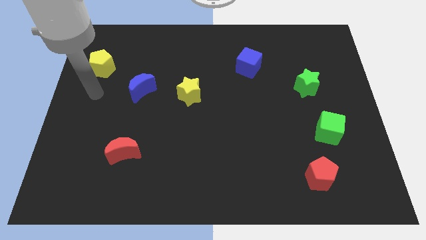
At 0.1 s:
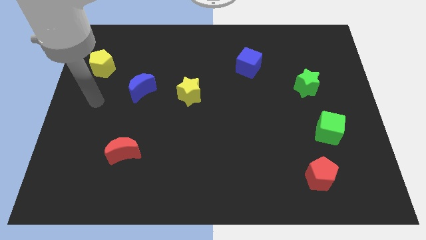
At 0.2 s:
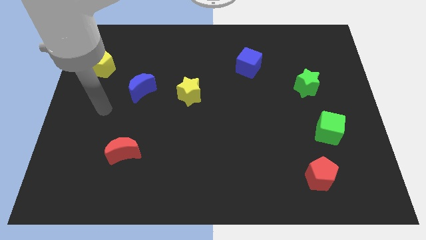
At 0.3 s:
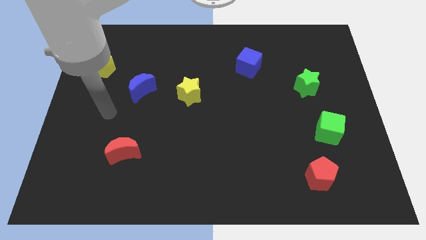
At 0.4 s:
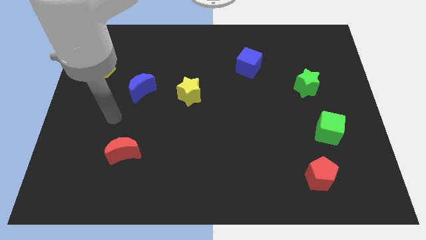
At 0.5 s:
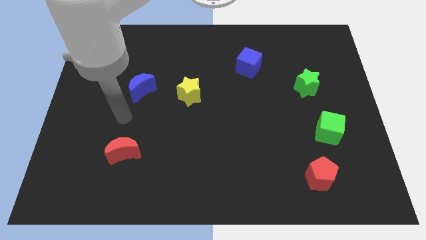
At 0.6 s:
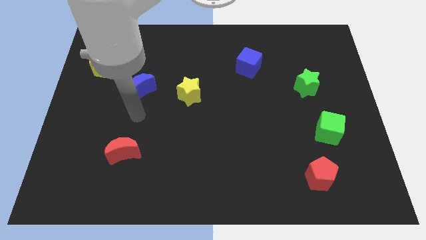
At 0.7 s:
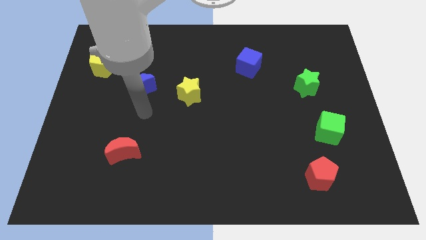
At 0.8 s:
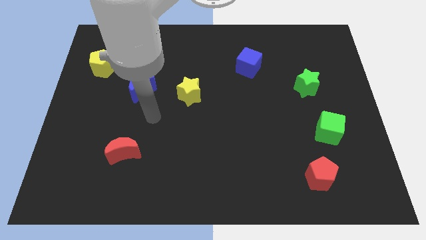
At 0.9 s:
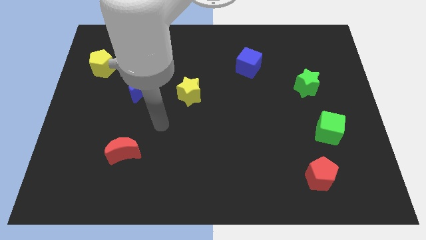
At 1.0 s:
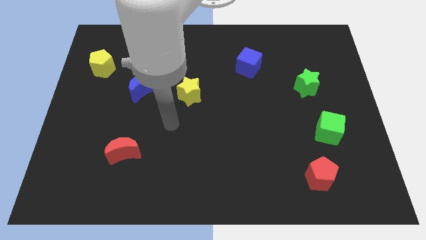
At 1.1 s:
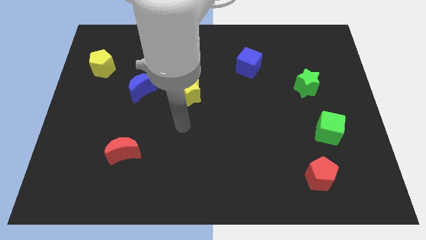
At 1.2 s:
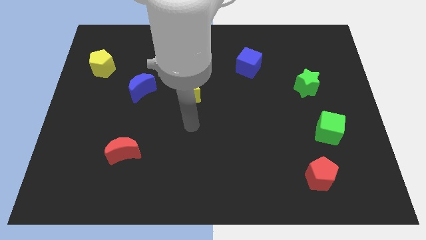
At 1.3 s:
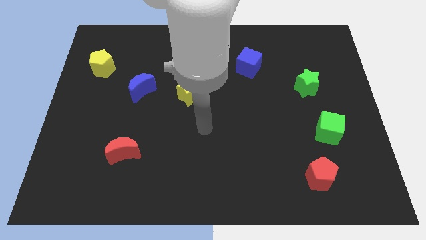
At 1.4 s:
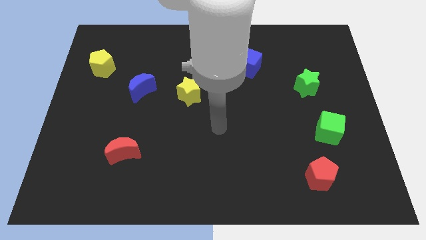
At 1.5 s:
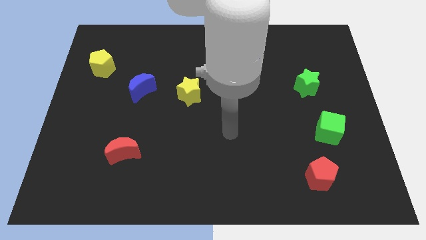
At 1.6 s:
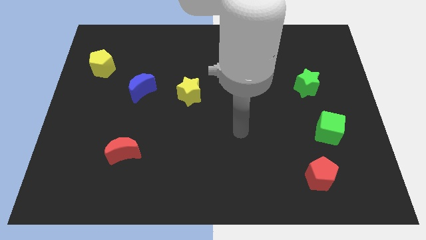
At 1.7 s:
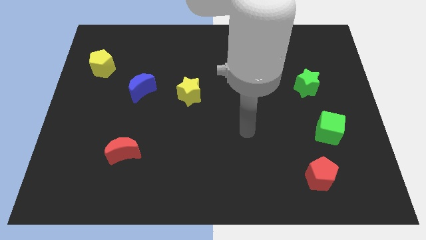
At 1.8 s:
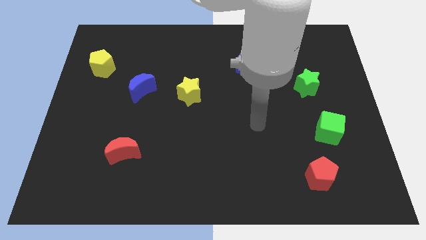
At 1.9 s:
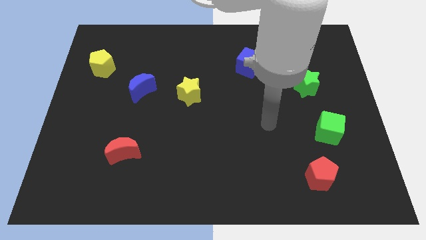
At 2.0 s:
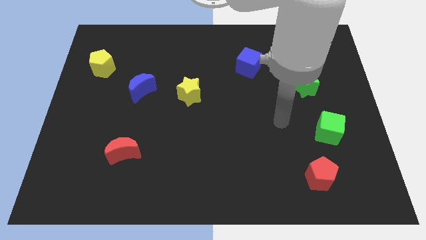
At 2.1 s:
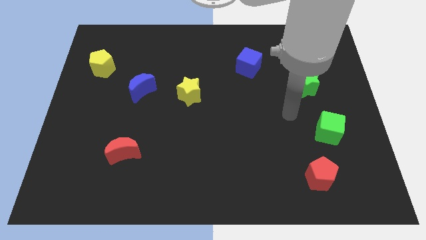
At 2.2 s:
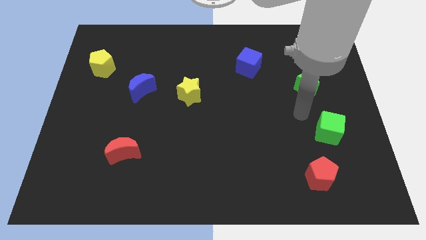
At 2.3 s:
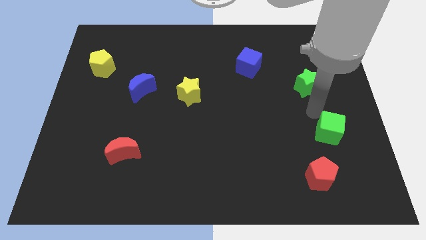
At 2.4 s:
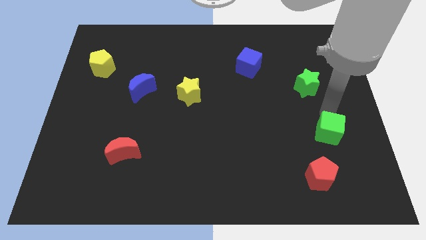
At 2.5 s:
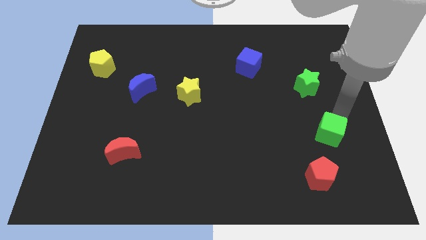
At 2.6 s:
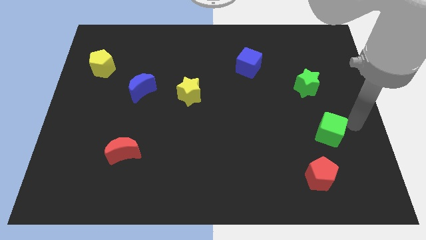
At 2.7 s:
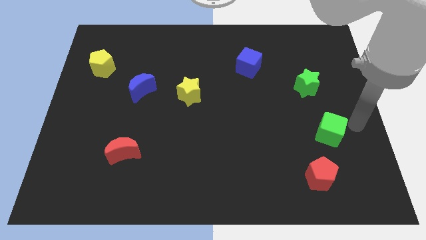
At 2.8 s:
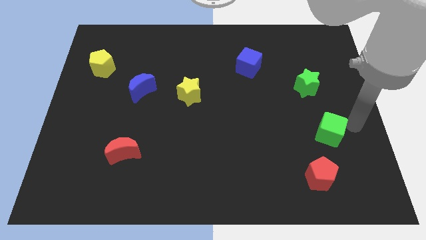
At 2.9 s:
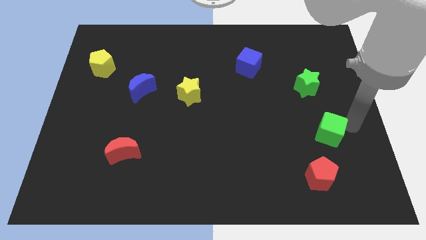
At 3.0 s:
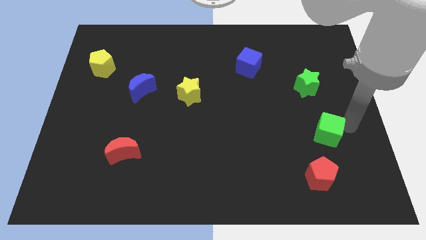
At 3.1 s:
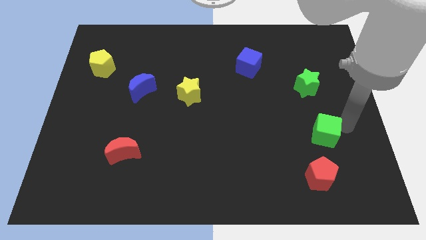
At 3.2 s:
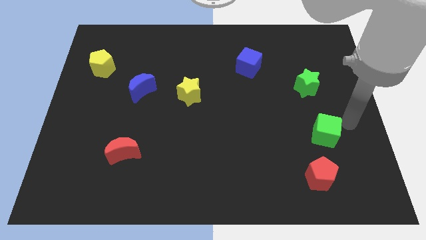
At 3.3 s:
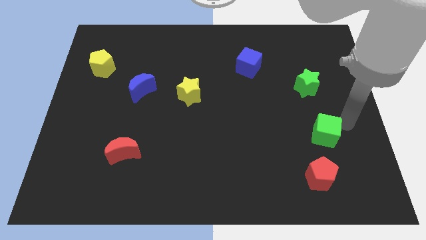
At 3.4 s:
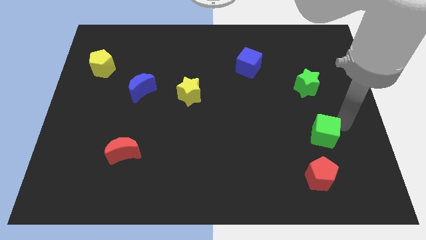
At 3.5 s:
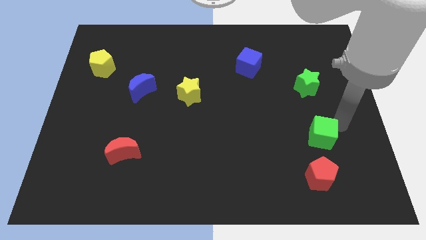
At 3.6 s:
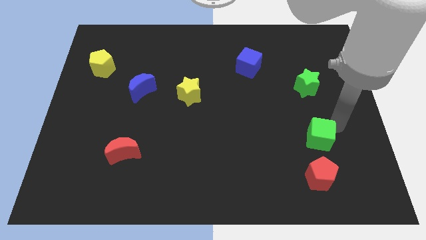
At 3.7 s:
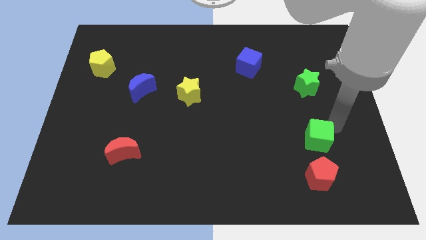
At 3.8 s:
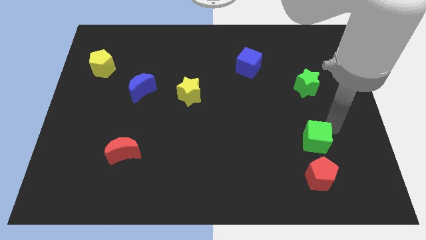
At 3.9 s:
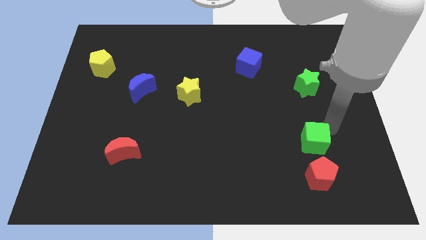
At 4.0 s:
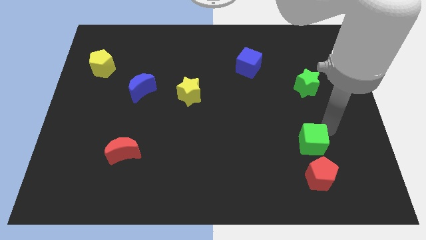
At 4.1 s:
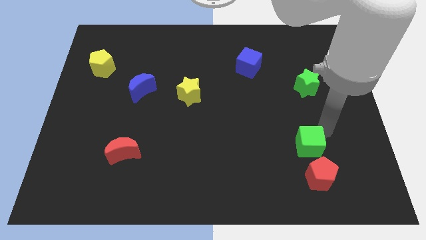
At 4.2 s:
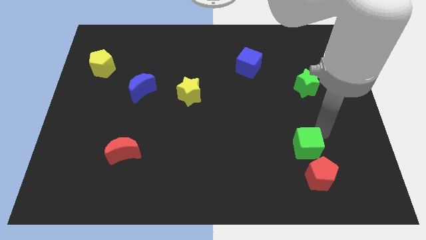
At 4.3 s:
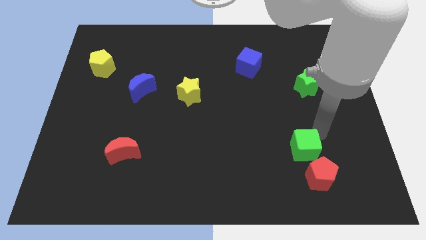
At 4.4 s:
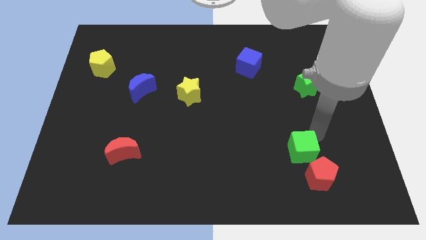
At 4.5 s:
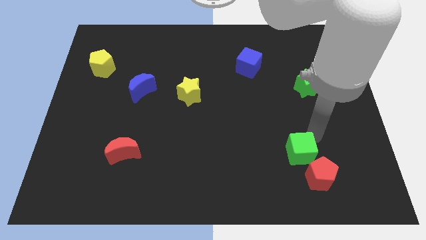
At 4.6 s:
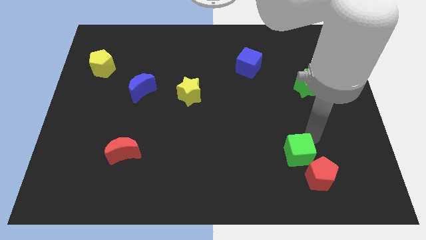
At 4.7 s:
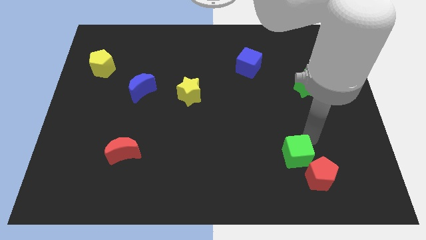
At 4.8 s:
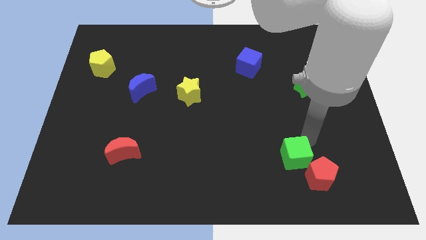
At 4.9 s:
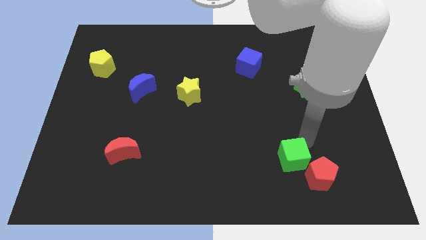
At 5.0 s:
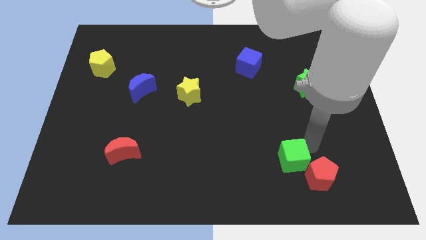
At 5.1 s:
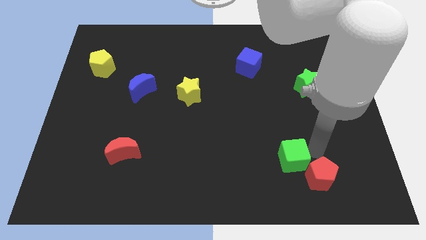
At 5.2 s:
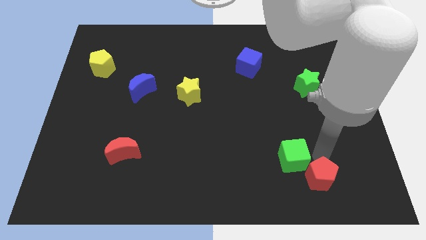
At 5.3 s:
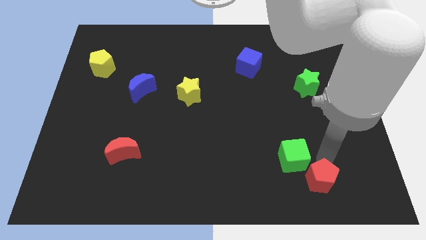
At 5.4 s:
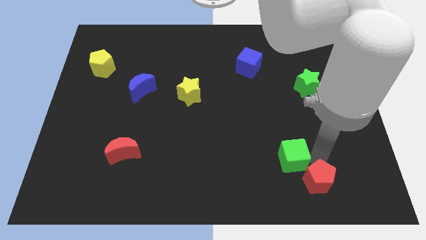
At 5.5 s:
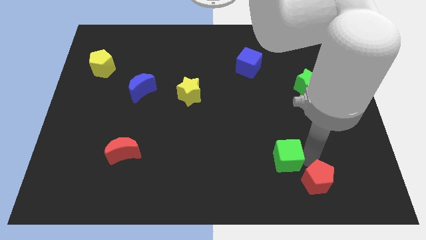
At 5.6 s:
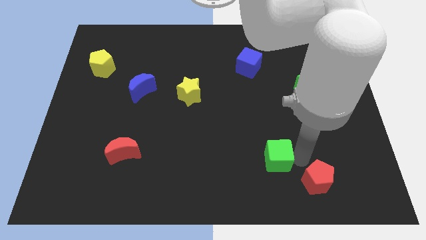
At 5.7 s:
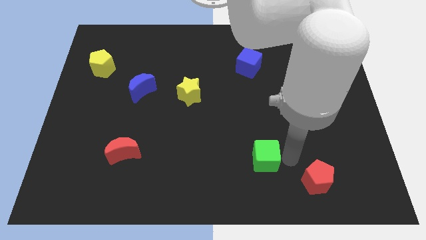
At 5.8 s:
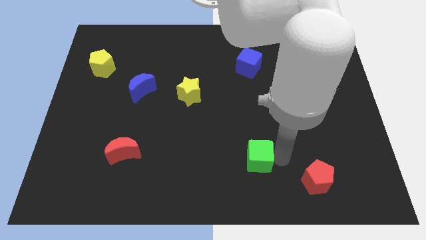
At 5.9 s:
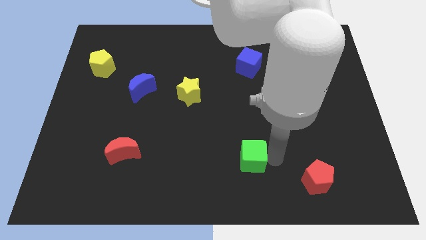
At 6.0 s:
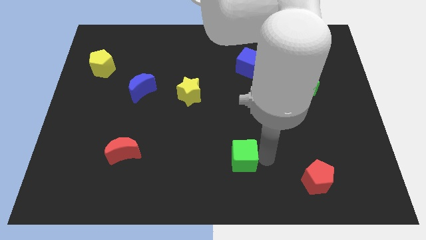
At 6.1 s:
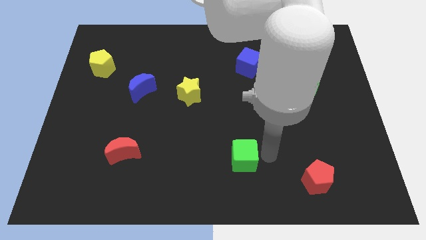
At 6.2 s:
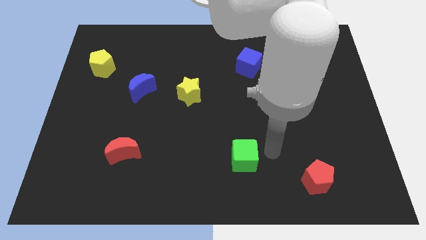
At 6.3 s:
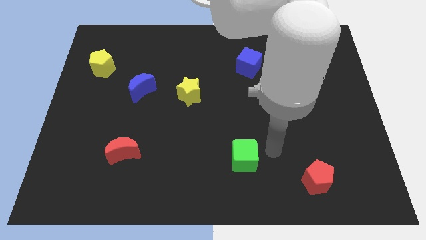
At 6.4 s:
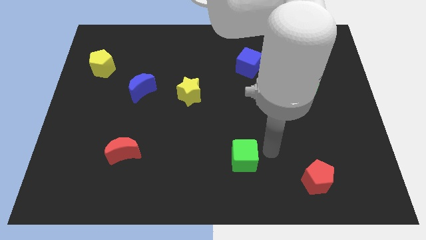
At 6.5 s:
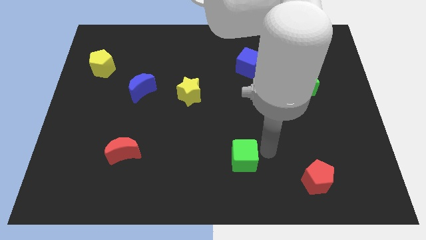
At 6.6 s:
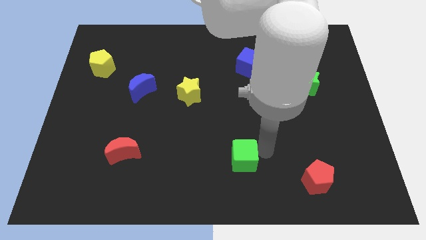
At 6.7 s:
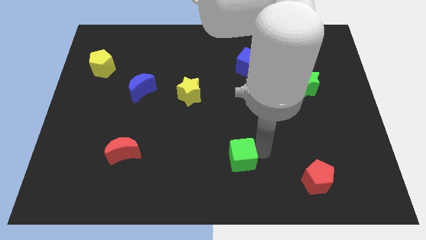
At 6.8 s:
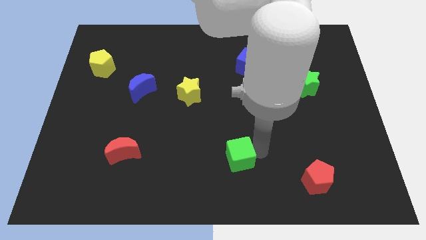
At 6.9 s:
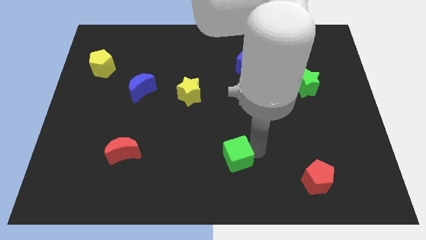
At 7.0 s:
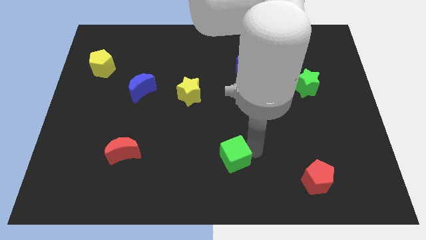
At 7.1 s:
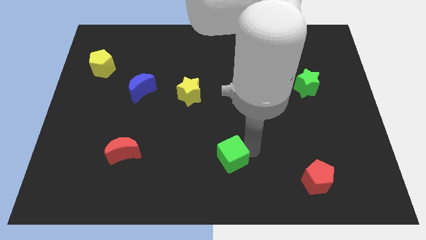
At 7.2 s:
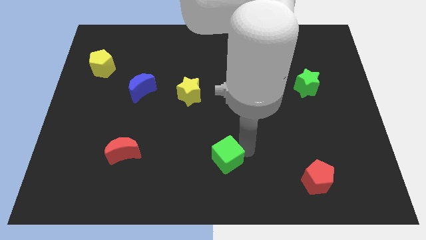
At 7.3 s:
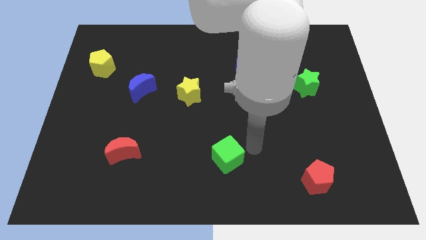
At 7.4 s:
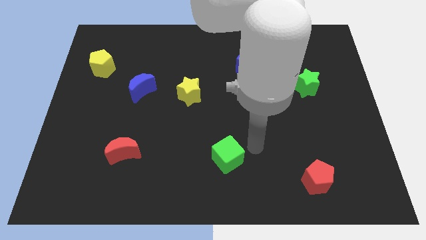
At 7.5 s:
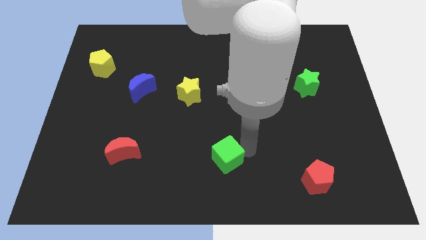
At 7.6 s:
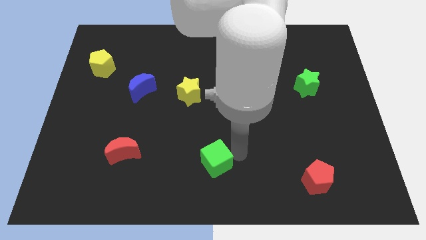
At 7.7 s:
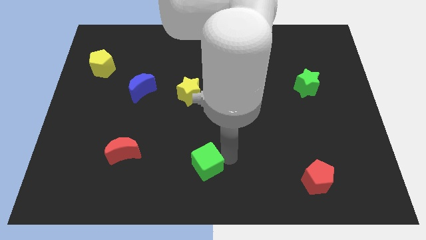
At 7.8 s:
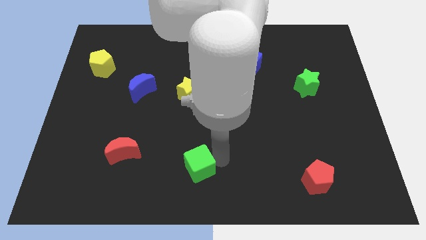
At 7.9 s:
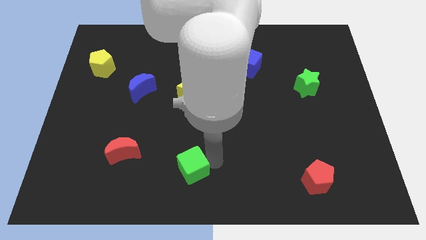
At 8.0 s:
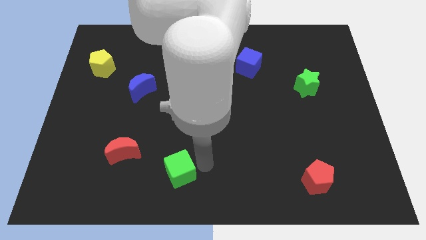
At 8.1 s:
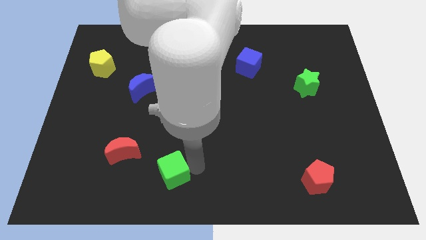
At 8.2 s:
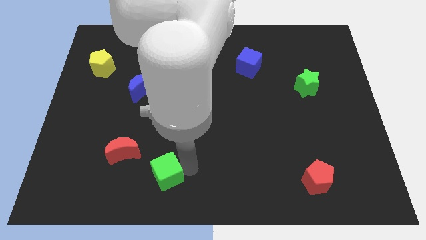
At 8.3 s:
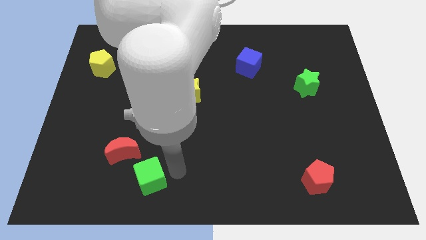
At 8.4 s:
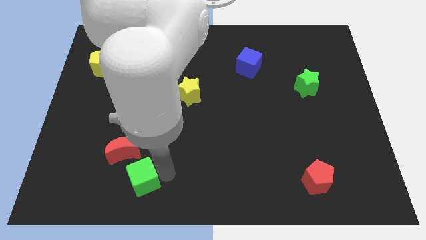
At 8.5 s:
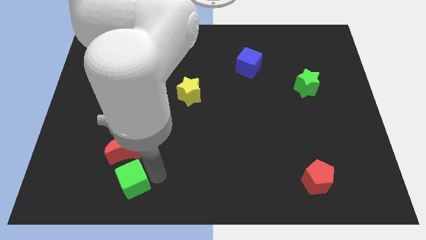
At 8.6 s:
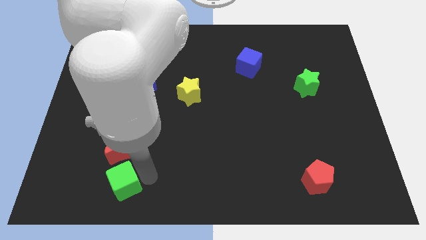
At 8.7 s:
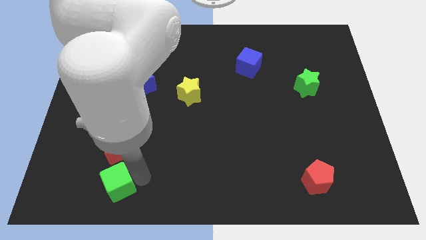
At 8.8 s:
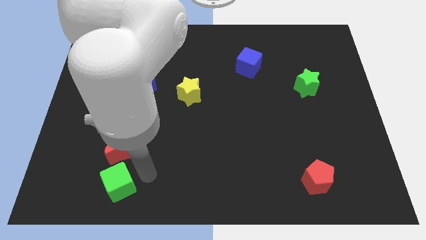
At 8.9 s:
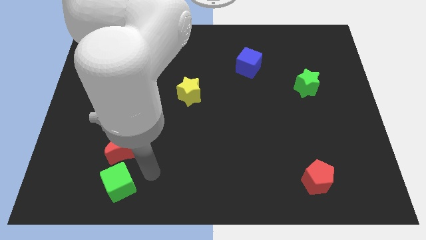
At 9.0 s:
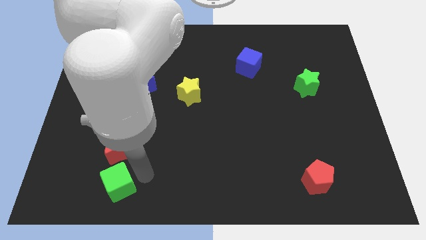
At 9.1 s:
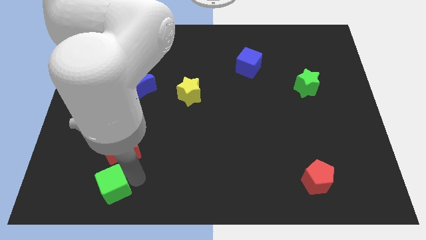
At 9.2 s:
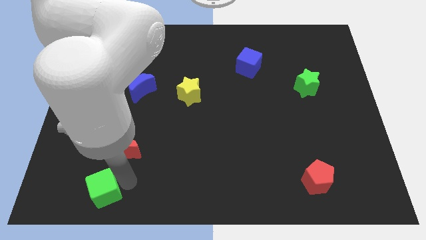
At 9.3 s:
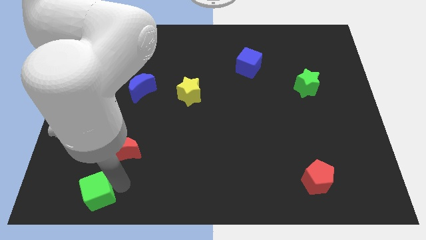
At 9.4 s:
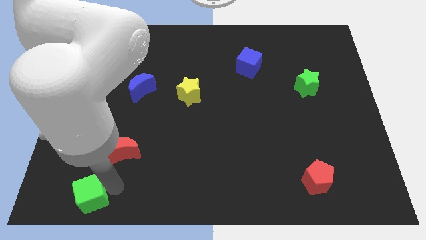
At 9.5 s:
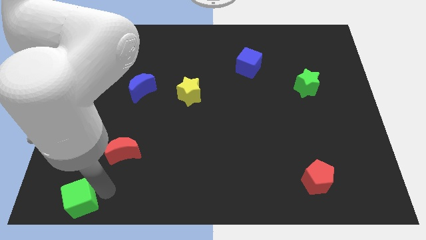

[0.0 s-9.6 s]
push the green cube to the bottom left
